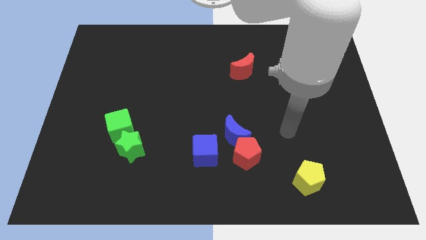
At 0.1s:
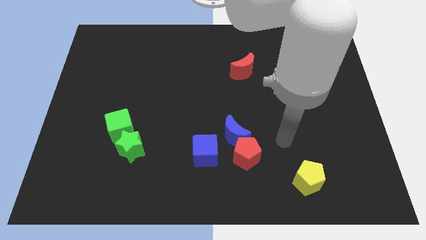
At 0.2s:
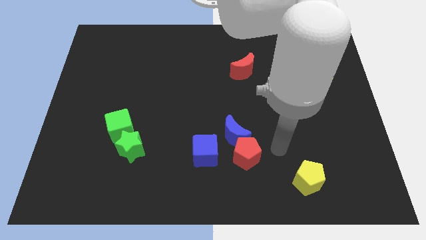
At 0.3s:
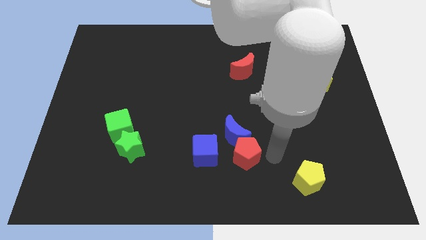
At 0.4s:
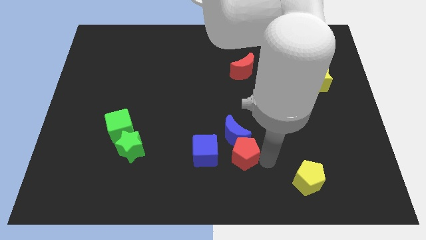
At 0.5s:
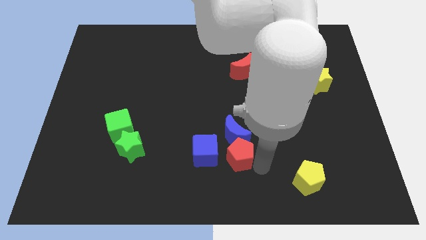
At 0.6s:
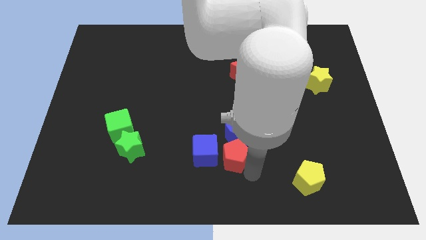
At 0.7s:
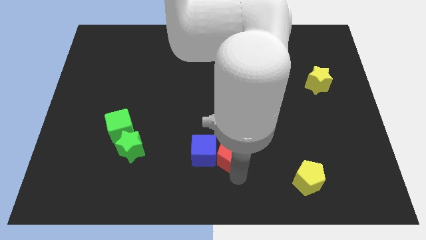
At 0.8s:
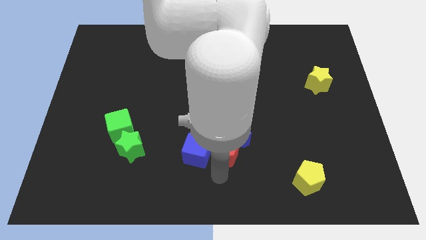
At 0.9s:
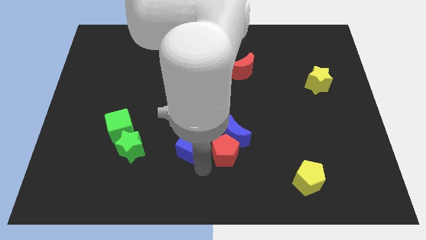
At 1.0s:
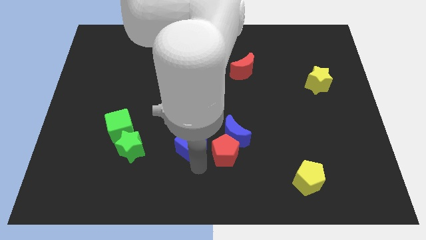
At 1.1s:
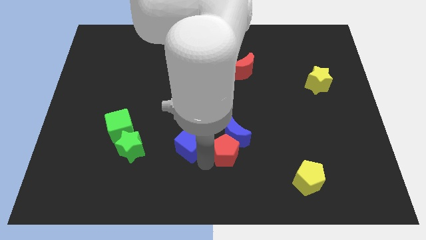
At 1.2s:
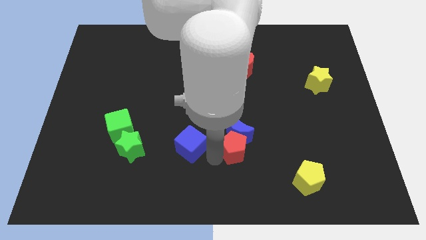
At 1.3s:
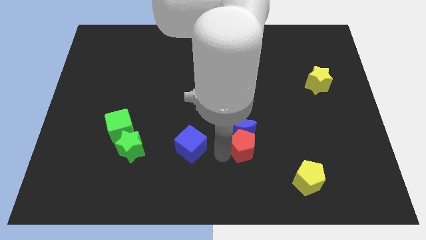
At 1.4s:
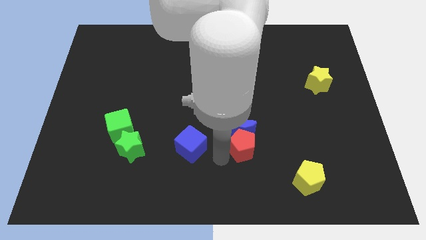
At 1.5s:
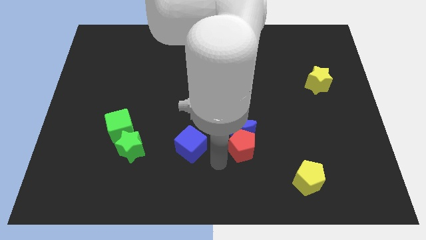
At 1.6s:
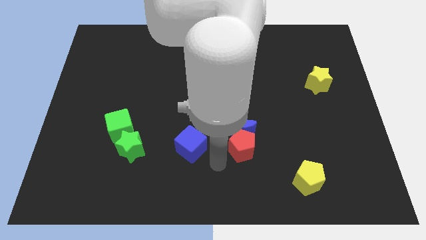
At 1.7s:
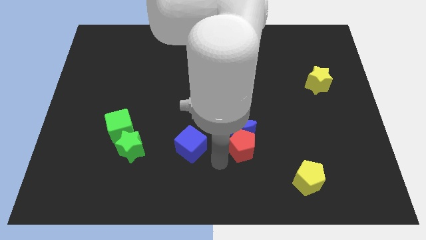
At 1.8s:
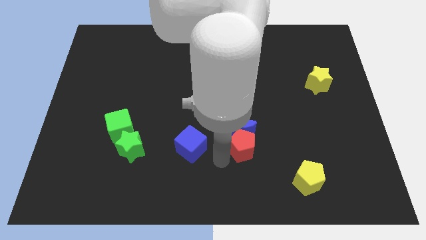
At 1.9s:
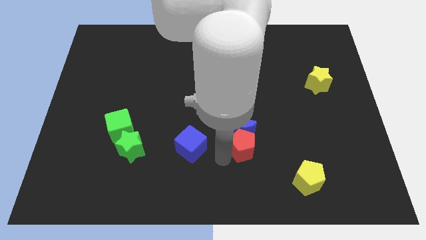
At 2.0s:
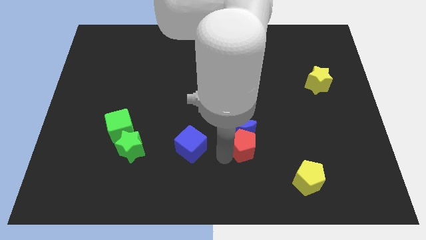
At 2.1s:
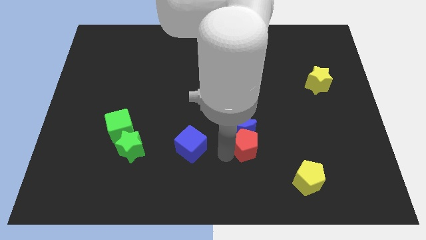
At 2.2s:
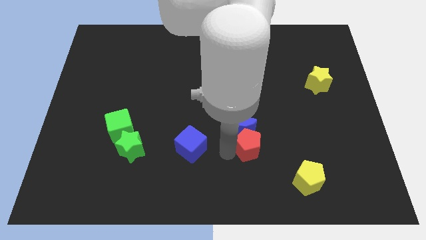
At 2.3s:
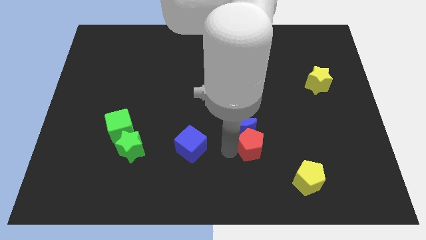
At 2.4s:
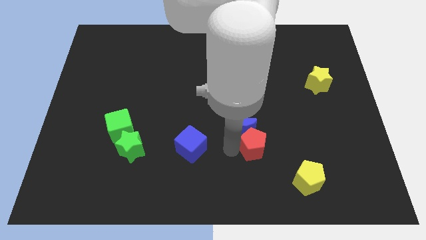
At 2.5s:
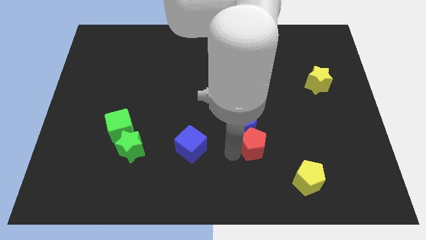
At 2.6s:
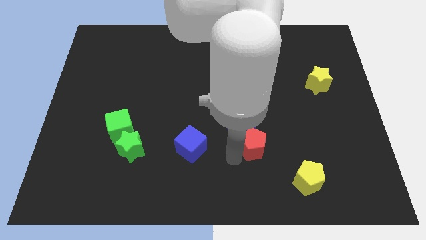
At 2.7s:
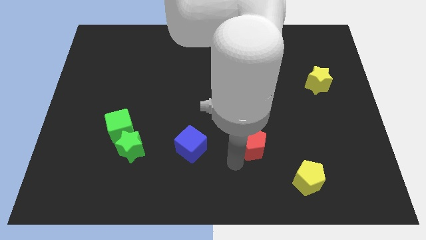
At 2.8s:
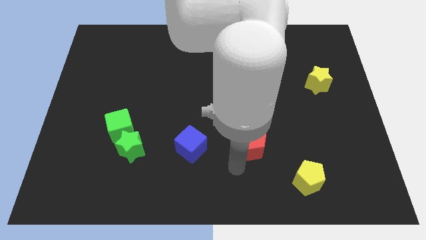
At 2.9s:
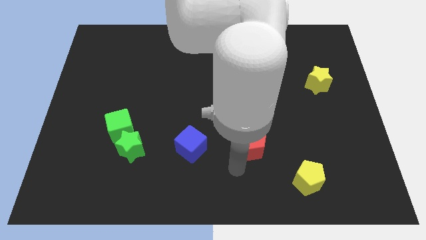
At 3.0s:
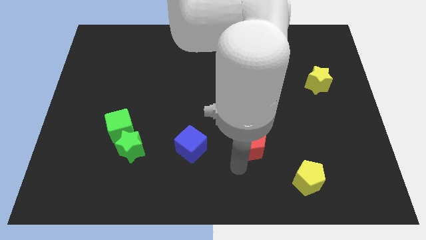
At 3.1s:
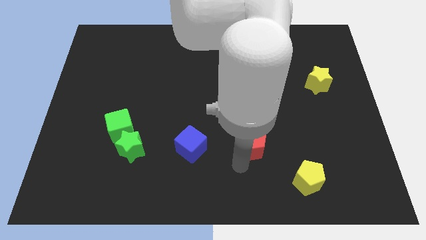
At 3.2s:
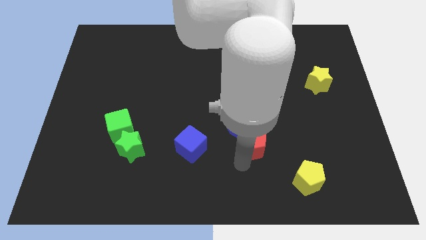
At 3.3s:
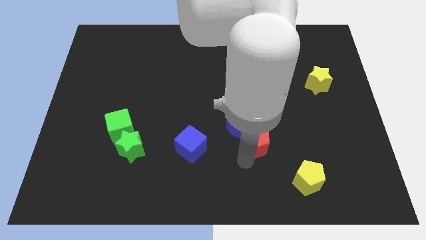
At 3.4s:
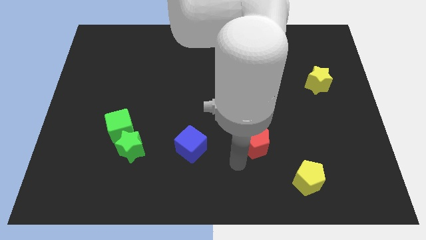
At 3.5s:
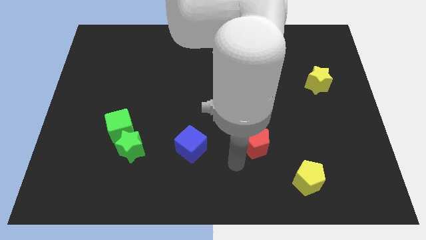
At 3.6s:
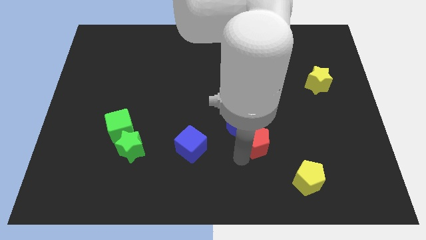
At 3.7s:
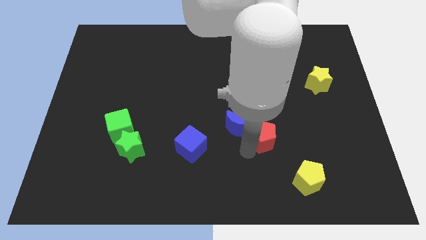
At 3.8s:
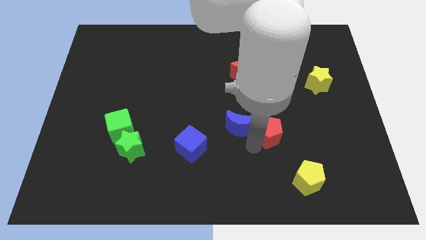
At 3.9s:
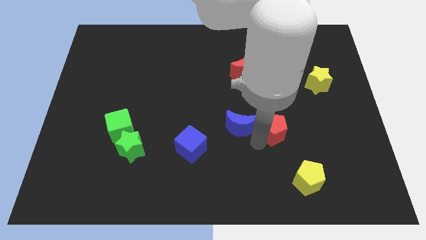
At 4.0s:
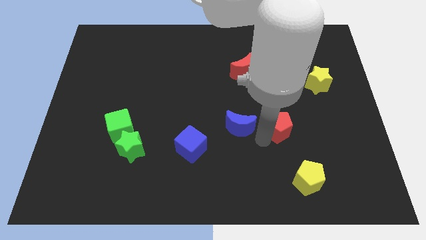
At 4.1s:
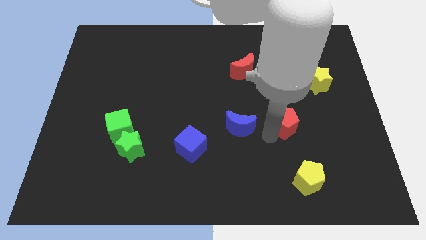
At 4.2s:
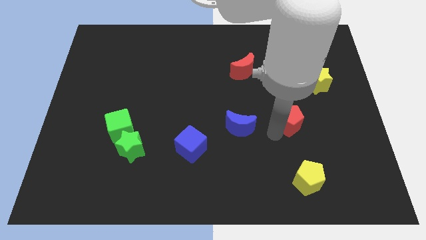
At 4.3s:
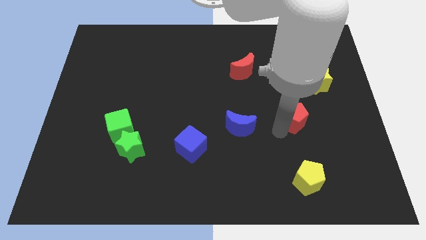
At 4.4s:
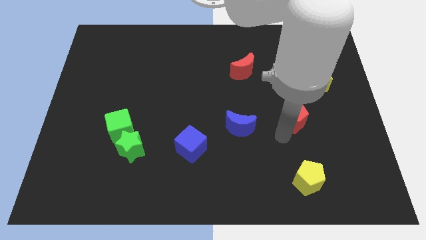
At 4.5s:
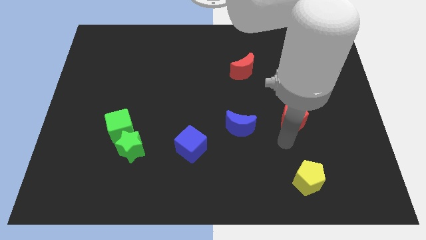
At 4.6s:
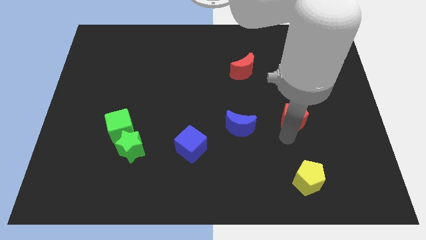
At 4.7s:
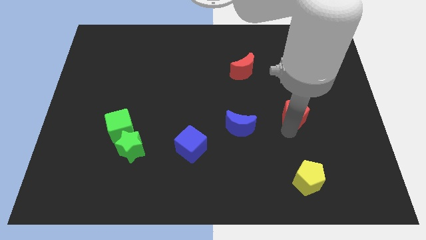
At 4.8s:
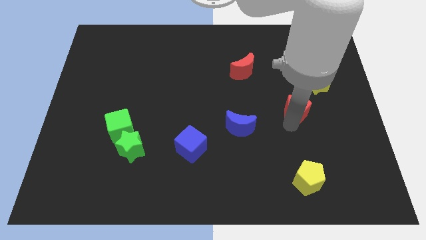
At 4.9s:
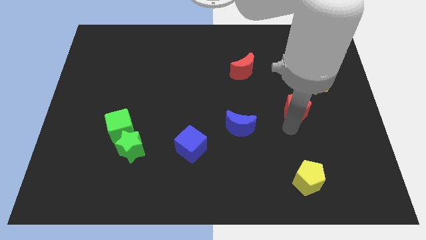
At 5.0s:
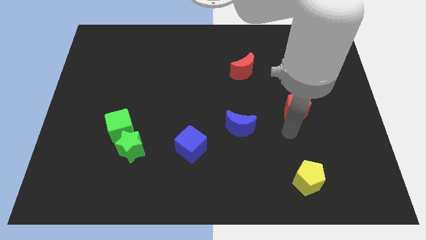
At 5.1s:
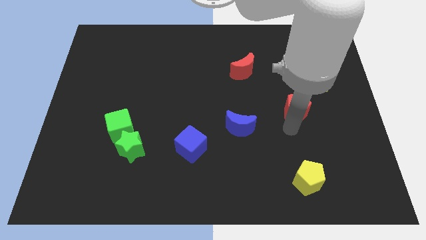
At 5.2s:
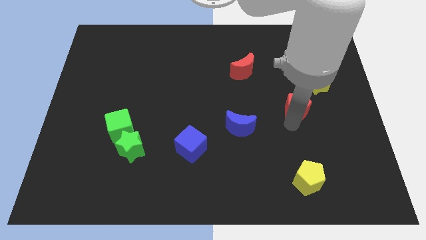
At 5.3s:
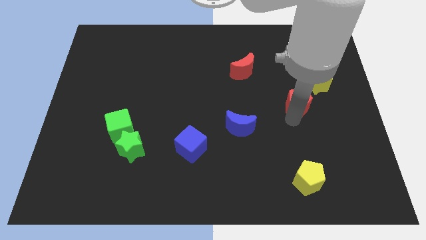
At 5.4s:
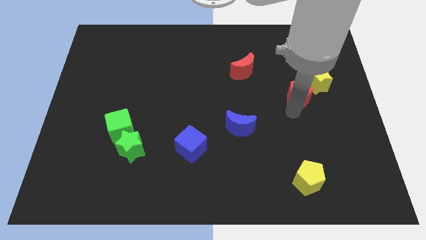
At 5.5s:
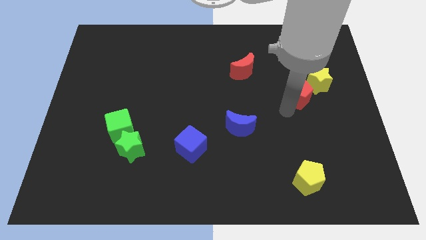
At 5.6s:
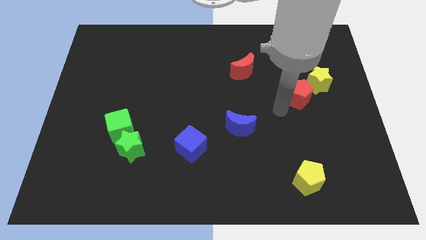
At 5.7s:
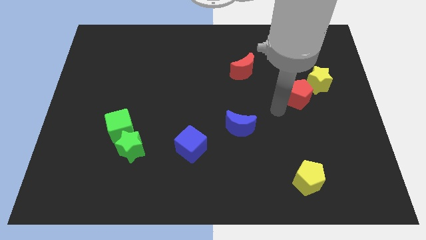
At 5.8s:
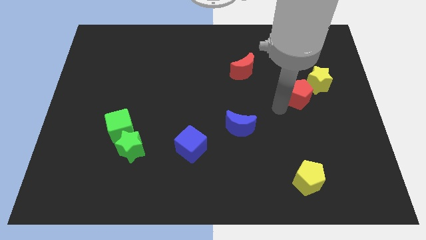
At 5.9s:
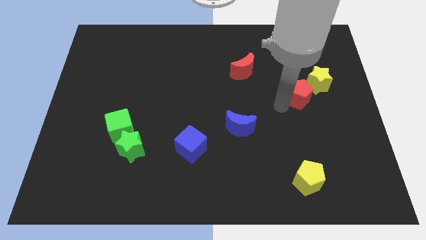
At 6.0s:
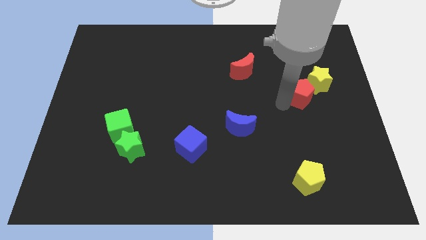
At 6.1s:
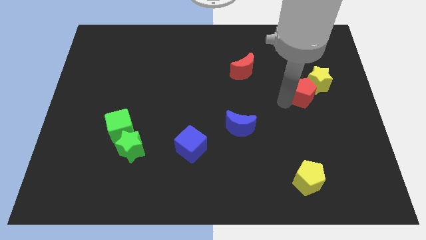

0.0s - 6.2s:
move the red pentagon to the yellow star

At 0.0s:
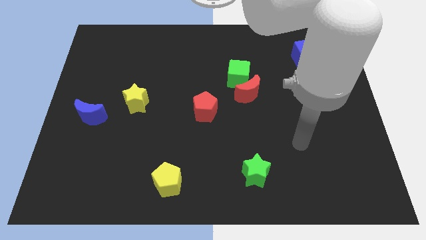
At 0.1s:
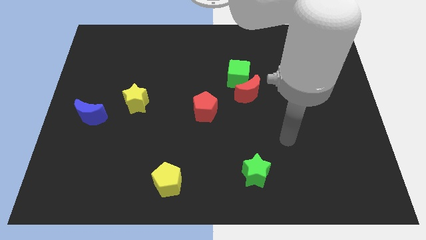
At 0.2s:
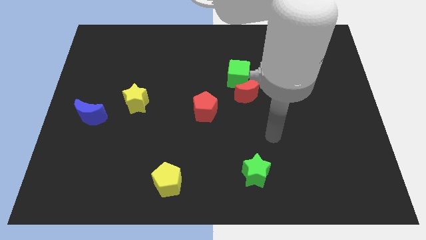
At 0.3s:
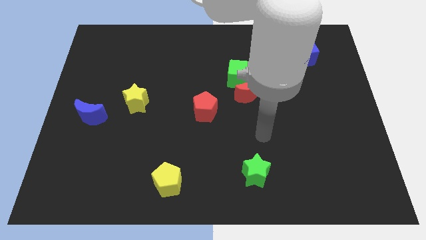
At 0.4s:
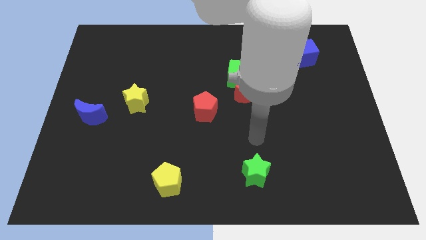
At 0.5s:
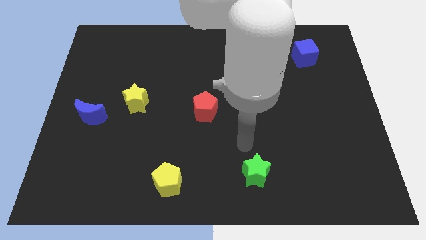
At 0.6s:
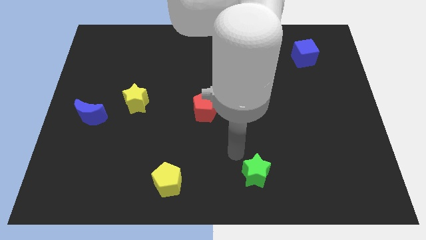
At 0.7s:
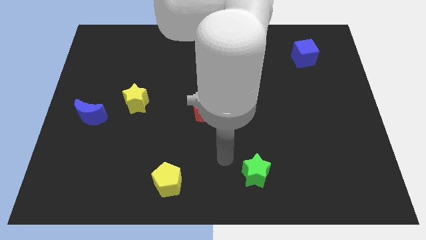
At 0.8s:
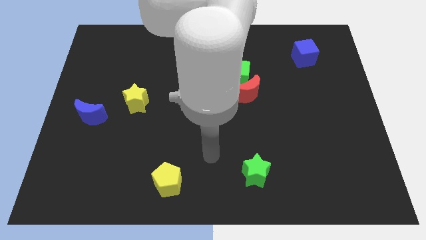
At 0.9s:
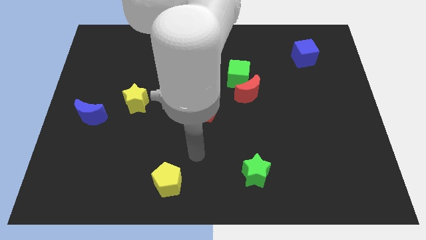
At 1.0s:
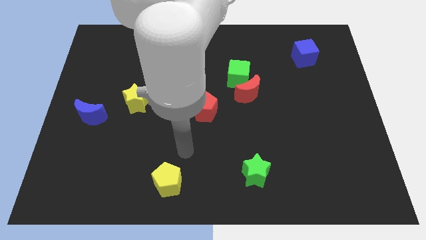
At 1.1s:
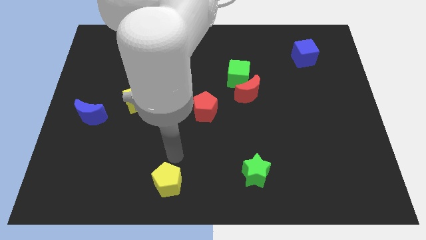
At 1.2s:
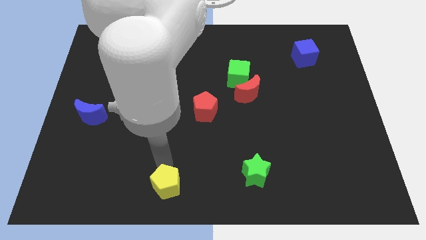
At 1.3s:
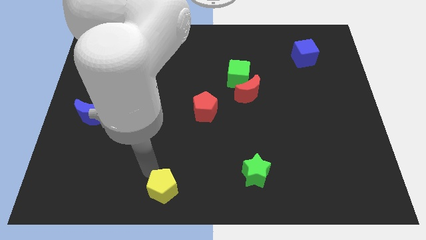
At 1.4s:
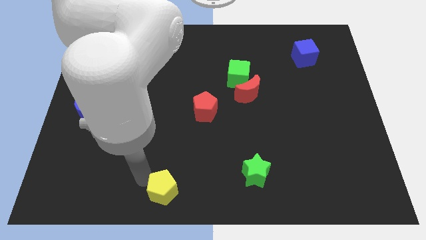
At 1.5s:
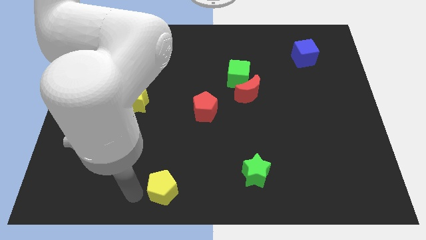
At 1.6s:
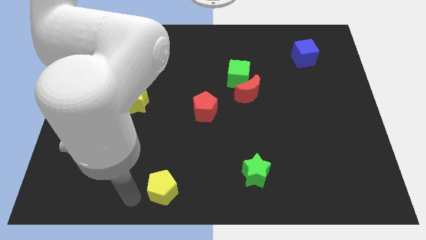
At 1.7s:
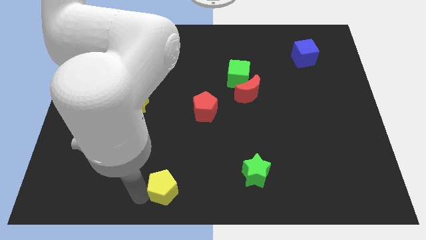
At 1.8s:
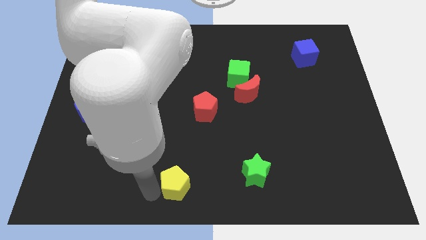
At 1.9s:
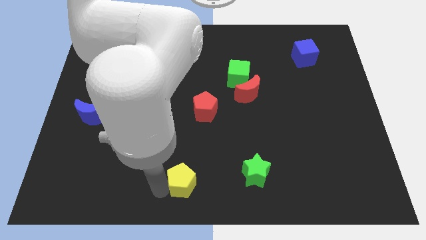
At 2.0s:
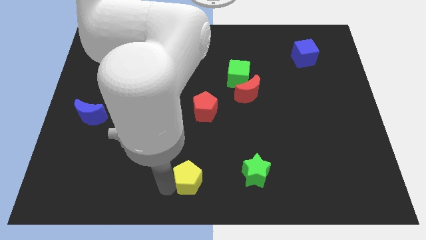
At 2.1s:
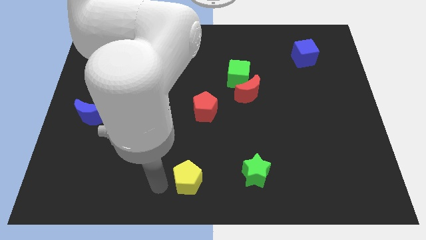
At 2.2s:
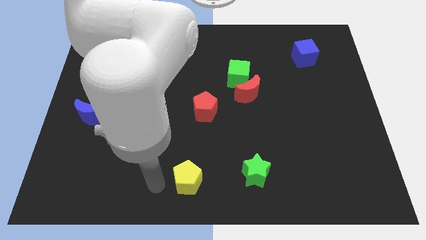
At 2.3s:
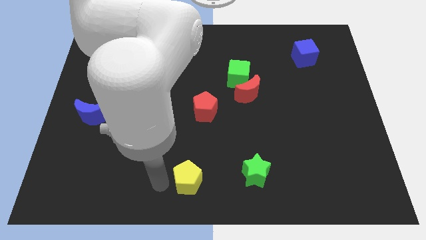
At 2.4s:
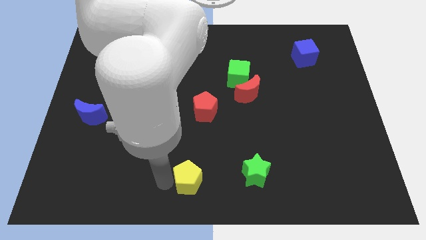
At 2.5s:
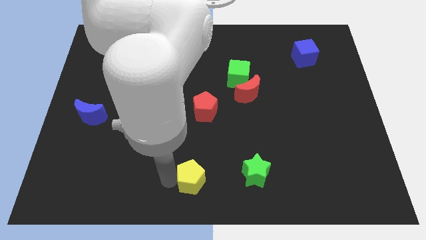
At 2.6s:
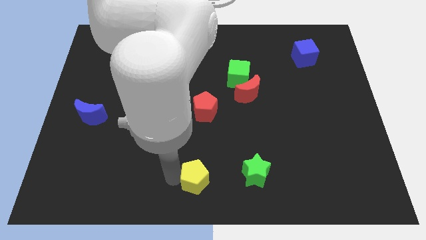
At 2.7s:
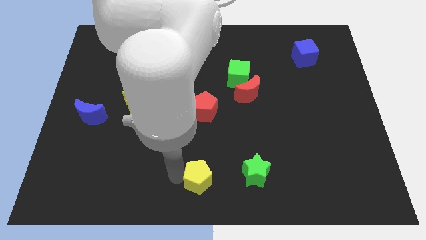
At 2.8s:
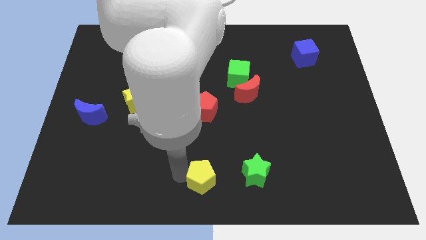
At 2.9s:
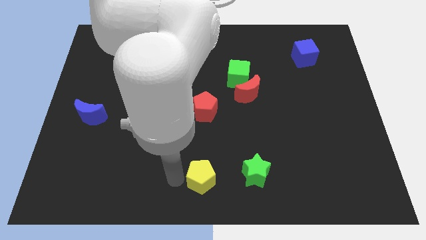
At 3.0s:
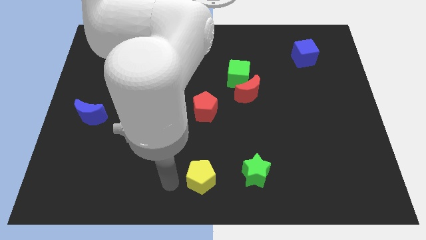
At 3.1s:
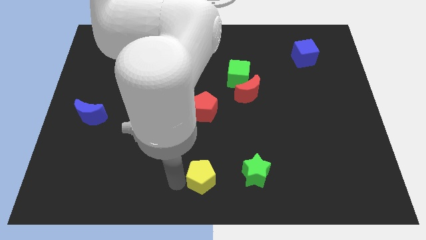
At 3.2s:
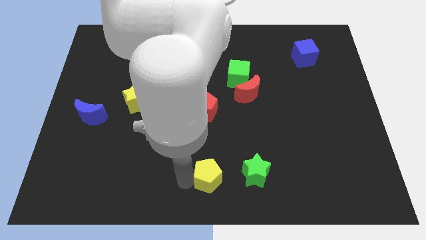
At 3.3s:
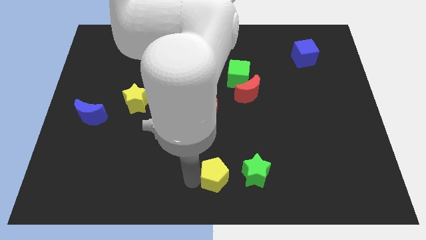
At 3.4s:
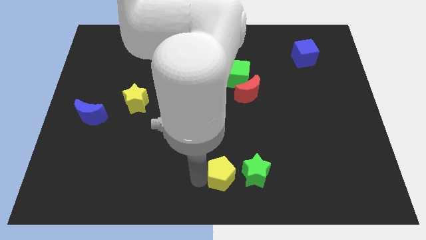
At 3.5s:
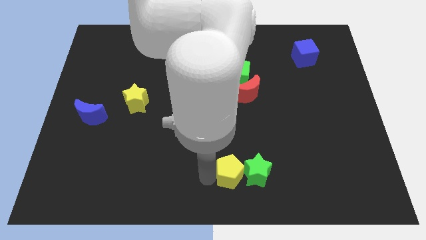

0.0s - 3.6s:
put the yellow pentagon to the green star
